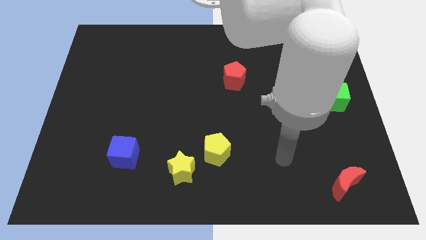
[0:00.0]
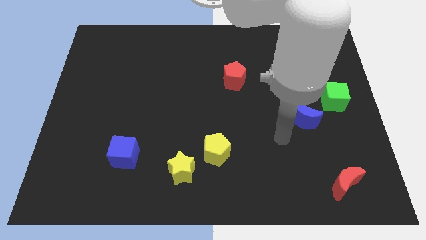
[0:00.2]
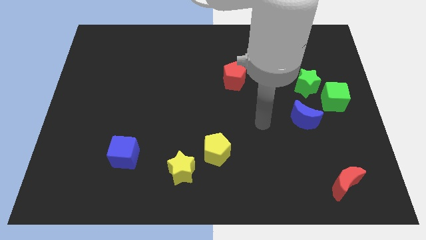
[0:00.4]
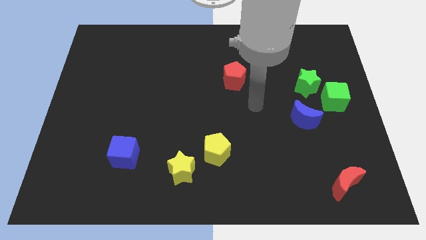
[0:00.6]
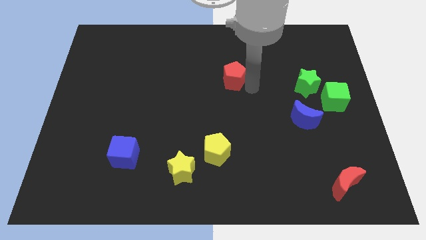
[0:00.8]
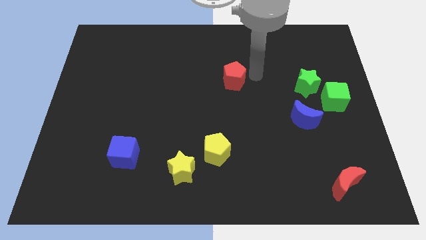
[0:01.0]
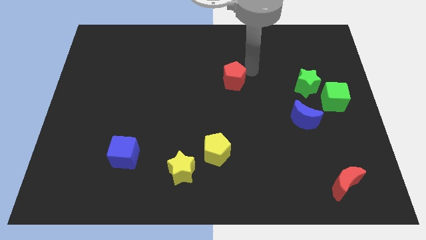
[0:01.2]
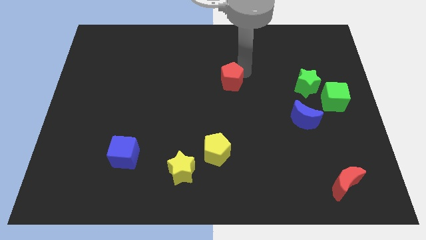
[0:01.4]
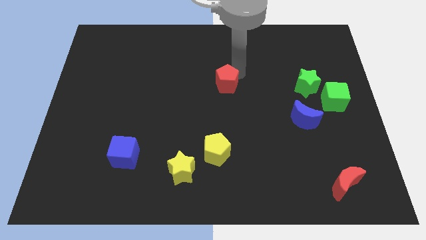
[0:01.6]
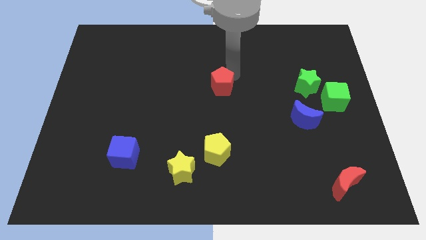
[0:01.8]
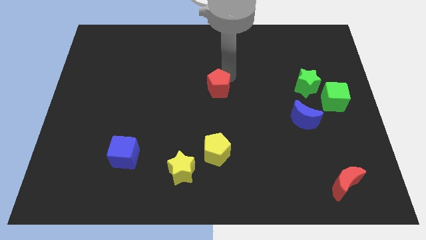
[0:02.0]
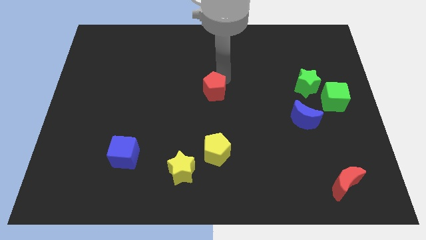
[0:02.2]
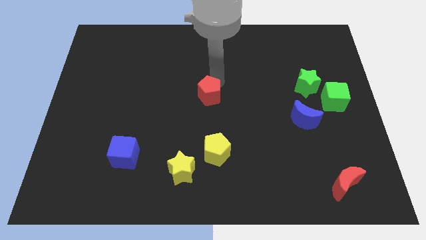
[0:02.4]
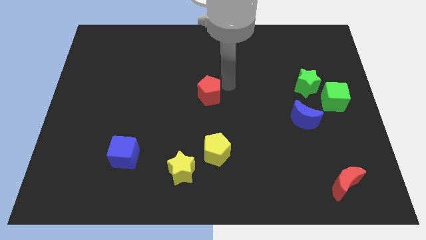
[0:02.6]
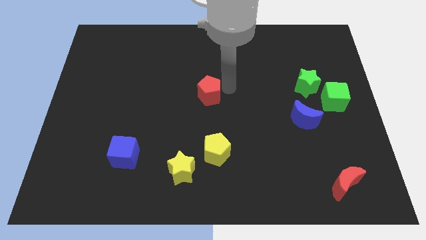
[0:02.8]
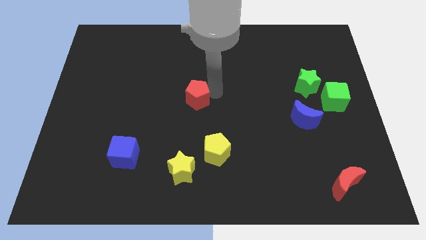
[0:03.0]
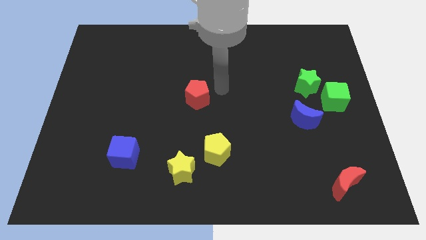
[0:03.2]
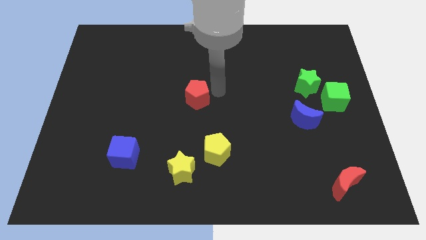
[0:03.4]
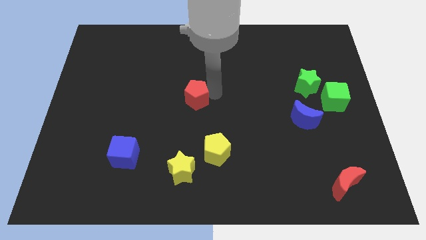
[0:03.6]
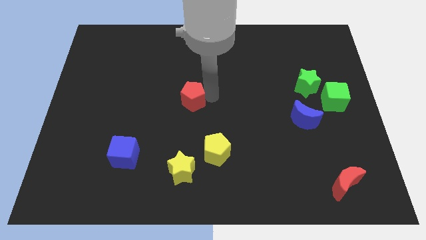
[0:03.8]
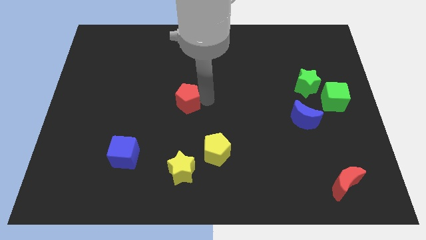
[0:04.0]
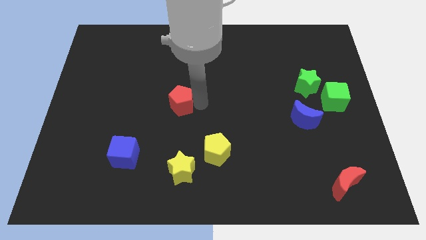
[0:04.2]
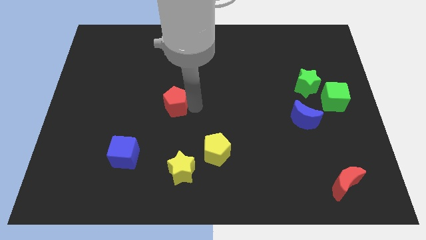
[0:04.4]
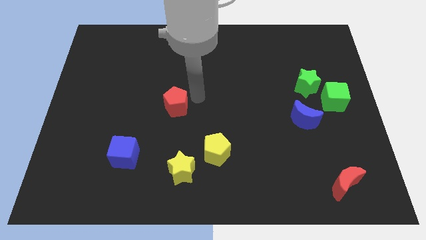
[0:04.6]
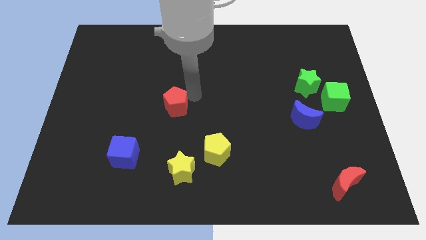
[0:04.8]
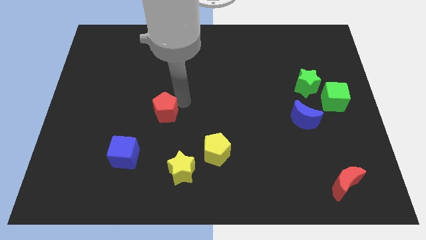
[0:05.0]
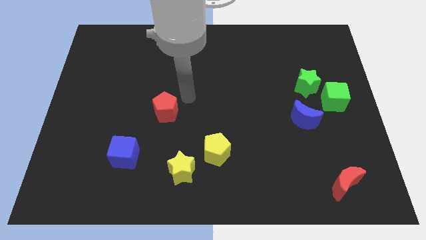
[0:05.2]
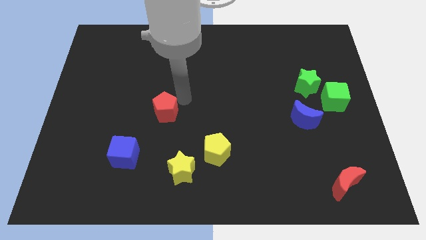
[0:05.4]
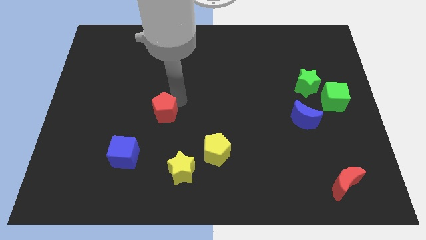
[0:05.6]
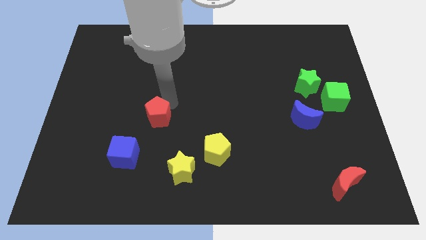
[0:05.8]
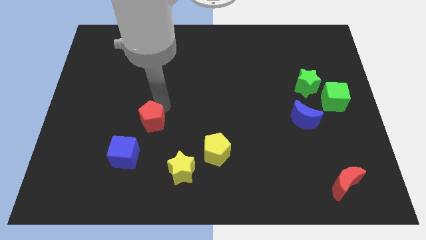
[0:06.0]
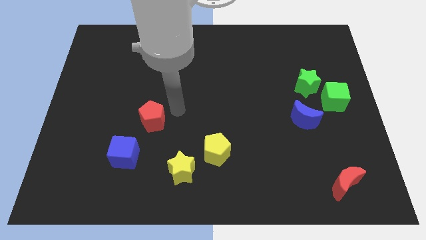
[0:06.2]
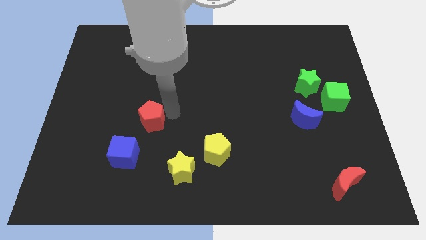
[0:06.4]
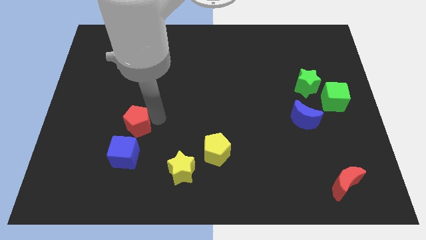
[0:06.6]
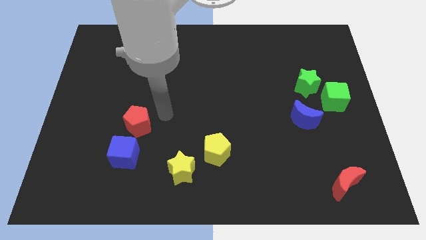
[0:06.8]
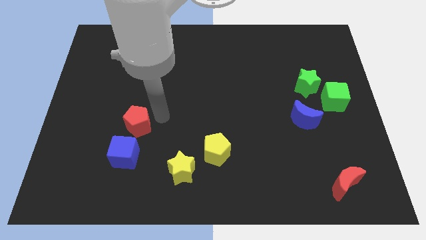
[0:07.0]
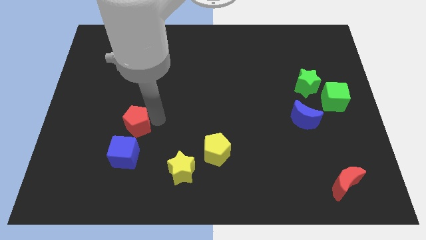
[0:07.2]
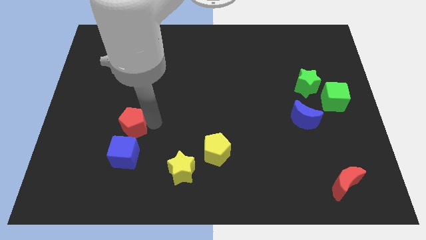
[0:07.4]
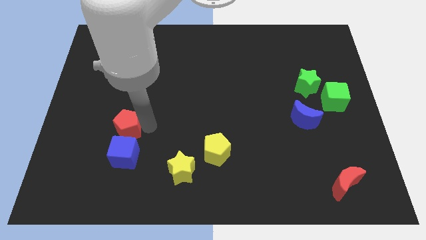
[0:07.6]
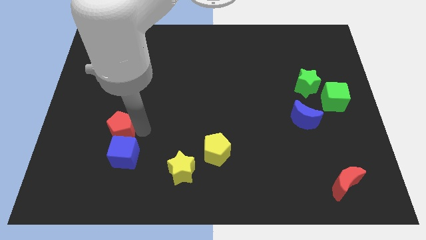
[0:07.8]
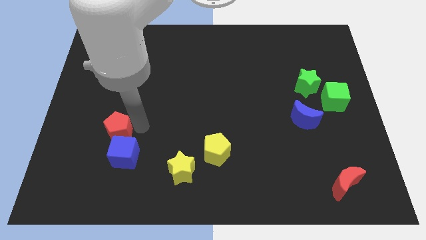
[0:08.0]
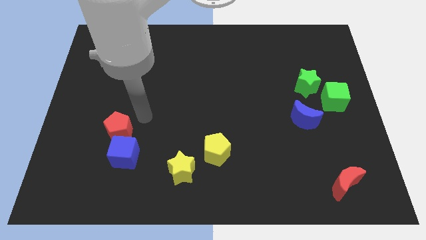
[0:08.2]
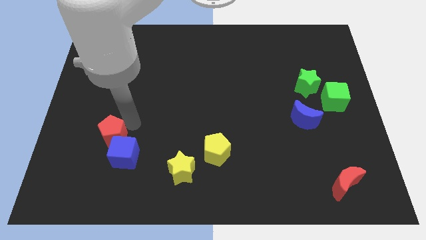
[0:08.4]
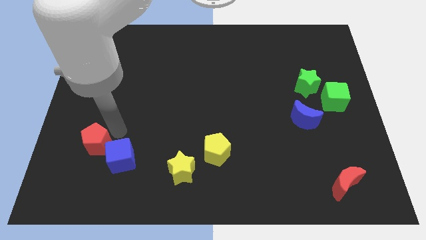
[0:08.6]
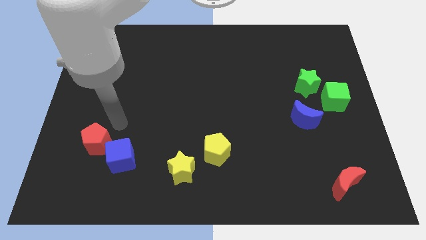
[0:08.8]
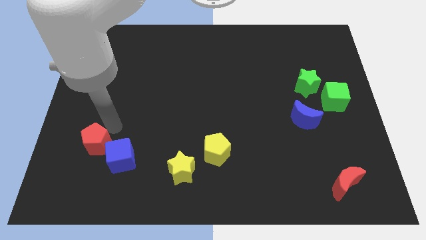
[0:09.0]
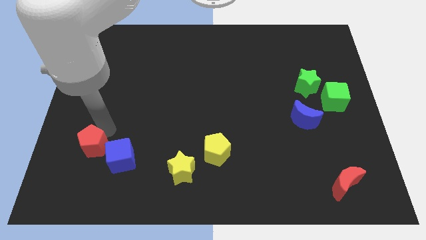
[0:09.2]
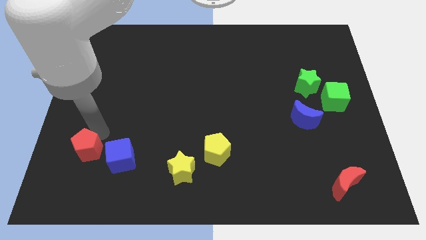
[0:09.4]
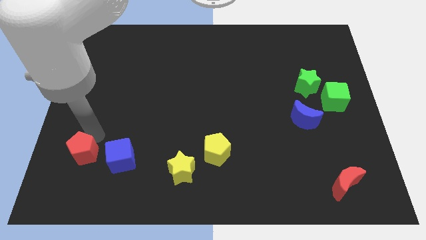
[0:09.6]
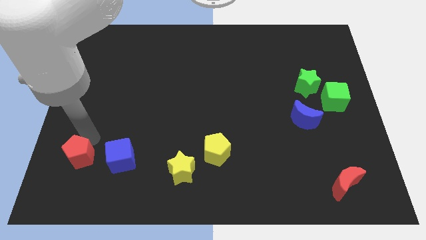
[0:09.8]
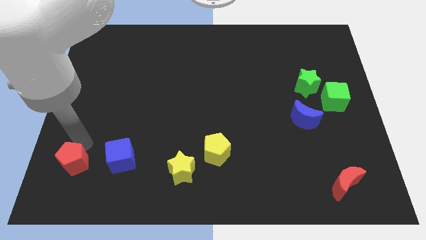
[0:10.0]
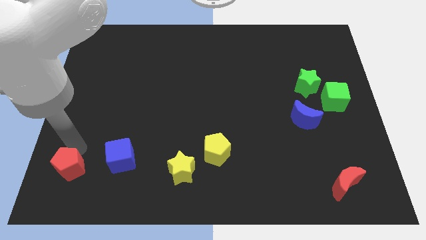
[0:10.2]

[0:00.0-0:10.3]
move the red pentagon to the bottom left

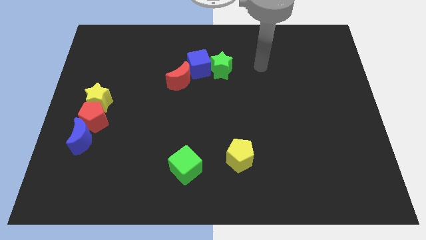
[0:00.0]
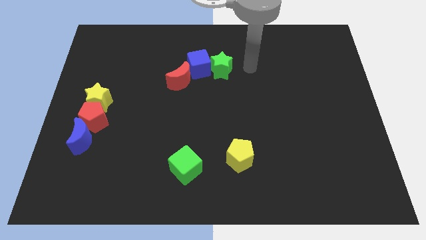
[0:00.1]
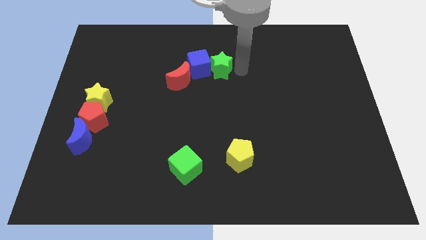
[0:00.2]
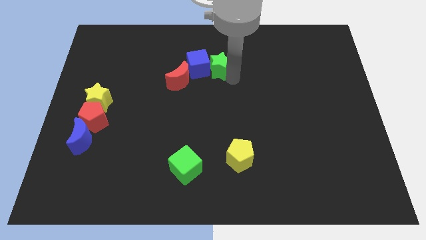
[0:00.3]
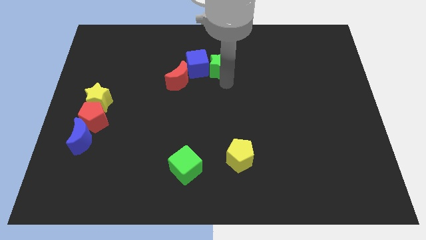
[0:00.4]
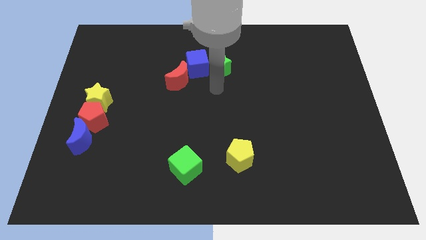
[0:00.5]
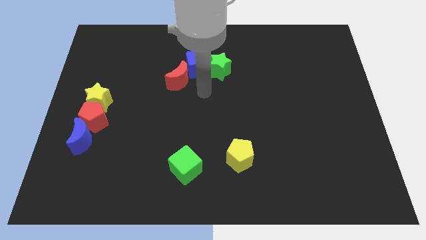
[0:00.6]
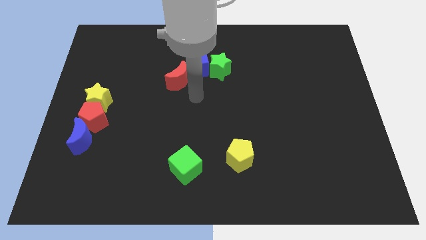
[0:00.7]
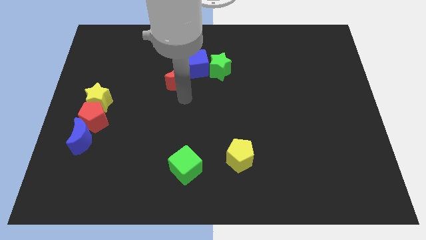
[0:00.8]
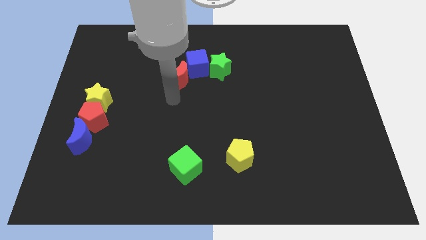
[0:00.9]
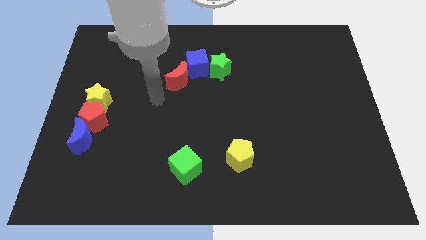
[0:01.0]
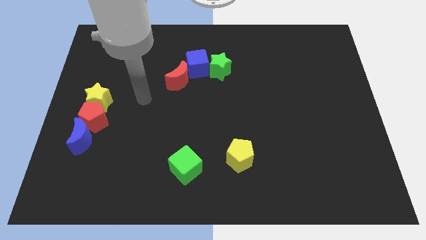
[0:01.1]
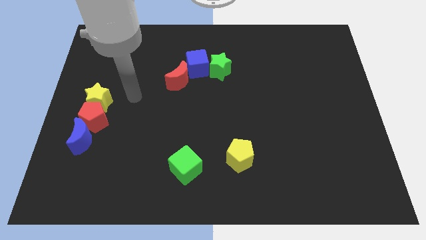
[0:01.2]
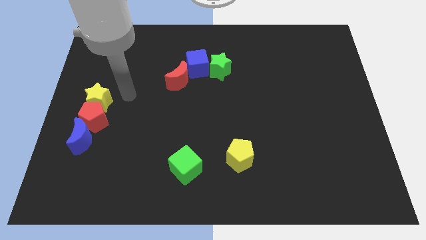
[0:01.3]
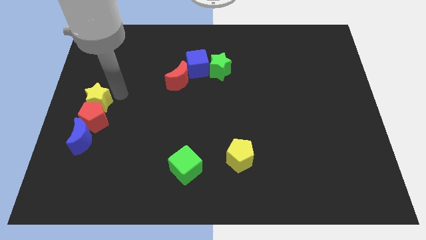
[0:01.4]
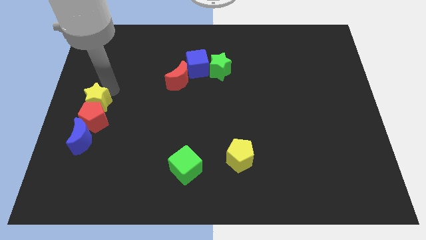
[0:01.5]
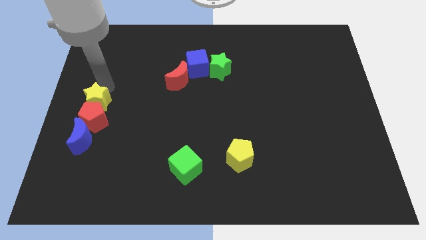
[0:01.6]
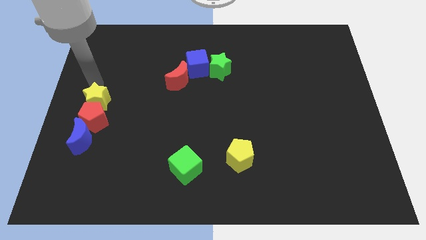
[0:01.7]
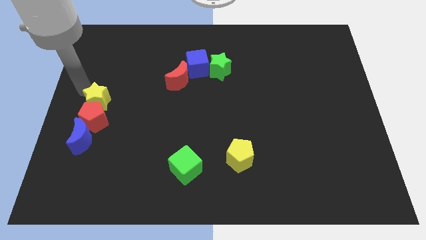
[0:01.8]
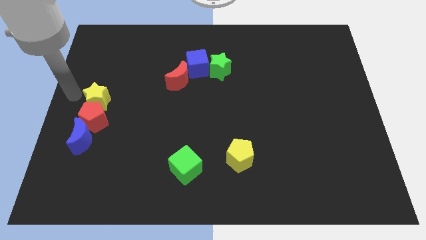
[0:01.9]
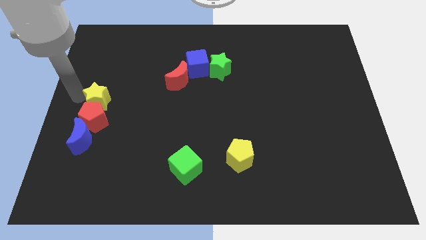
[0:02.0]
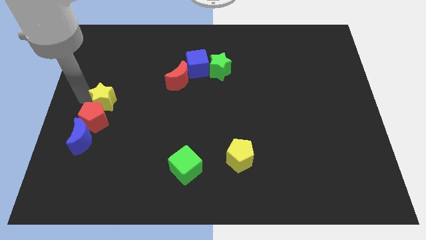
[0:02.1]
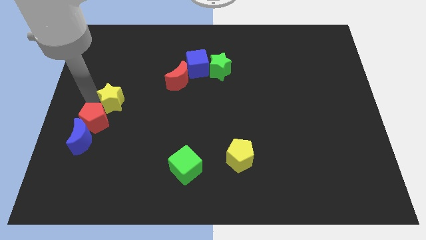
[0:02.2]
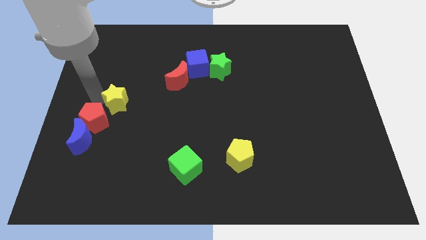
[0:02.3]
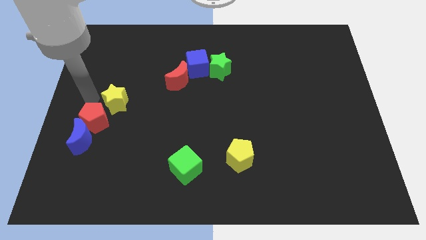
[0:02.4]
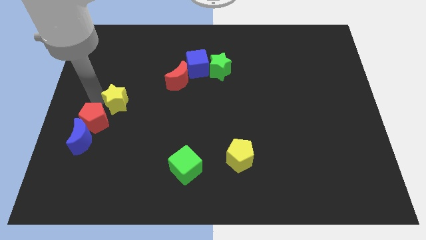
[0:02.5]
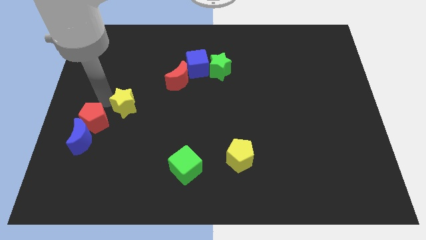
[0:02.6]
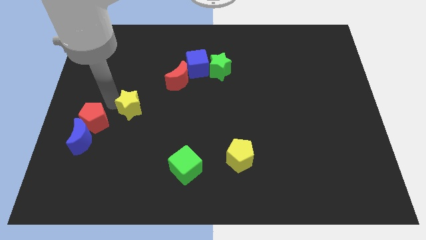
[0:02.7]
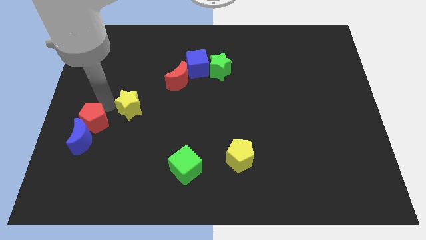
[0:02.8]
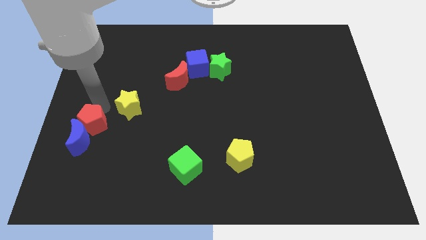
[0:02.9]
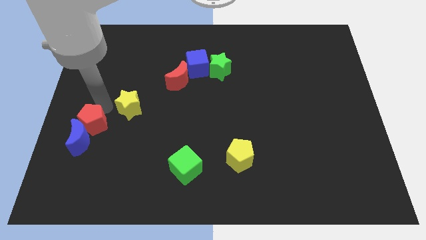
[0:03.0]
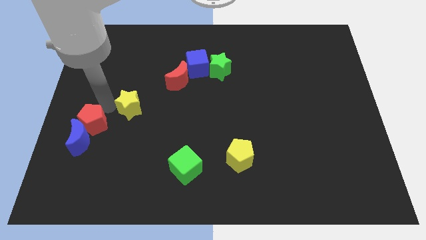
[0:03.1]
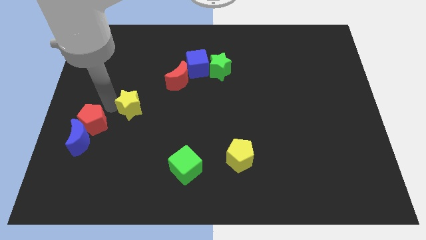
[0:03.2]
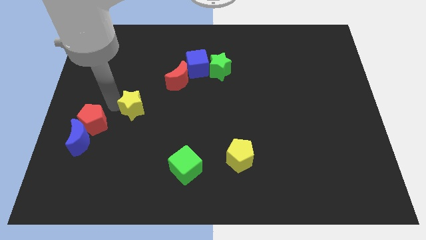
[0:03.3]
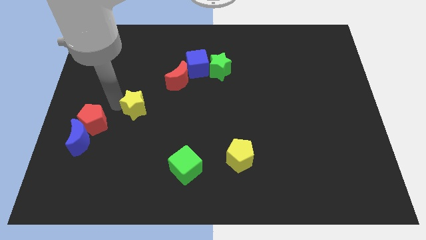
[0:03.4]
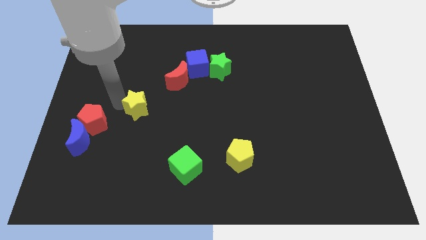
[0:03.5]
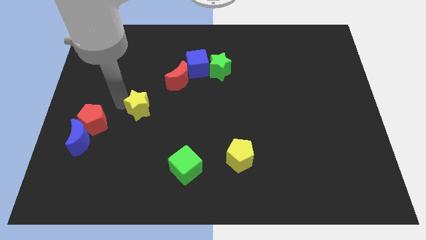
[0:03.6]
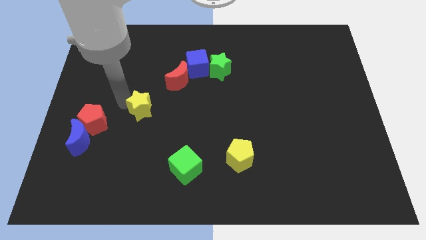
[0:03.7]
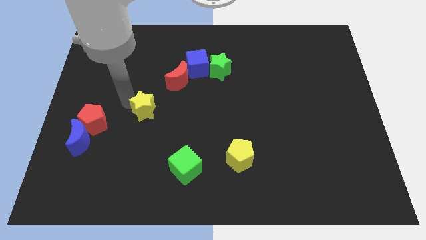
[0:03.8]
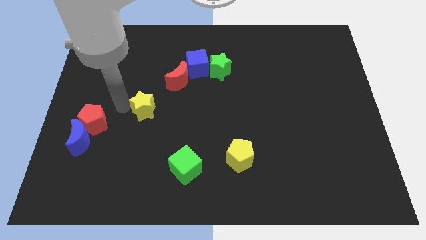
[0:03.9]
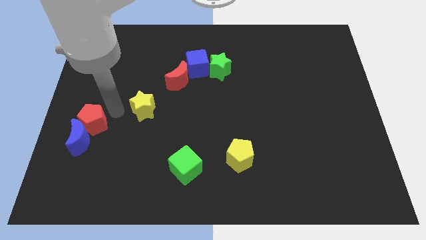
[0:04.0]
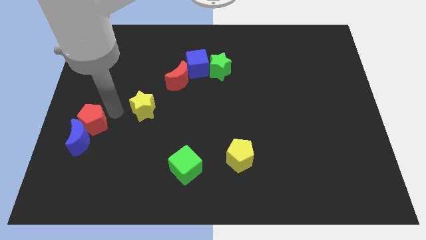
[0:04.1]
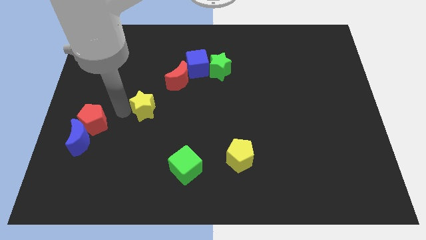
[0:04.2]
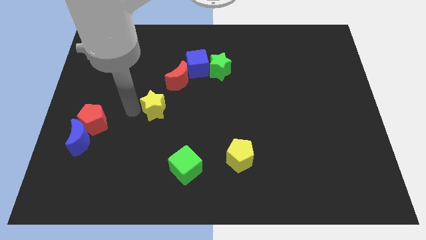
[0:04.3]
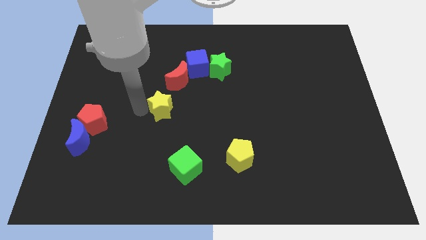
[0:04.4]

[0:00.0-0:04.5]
put the yellow star to the center
